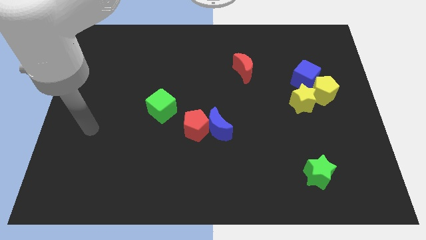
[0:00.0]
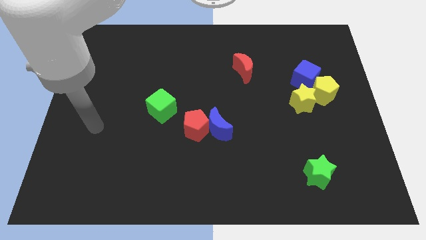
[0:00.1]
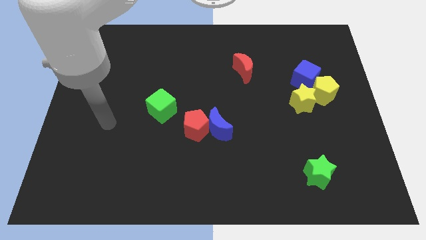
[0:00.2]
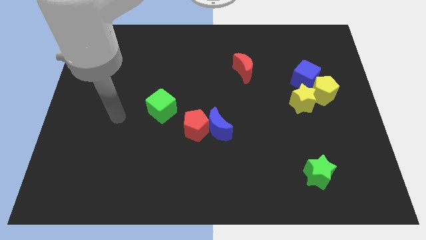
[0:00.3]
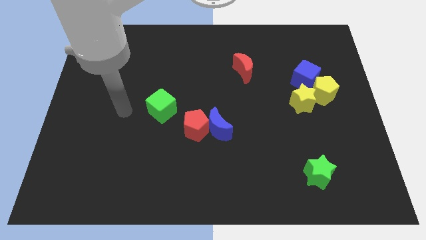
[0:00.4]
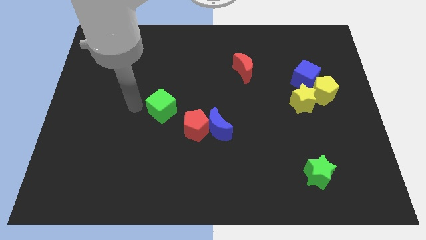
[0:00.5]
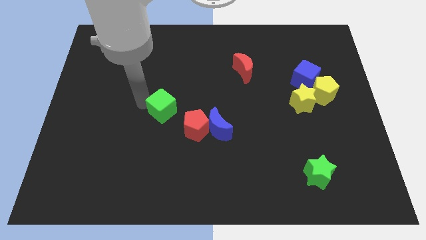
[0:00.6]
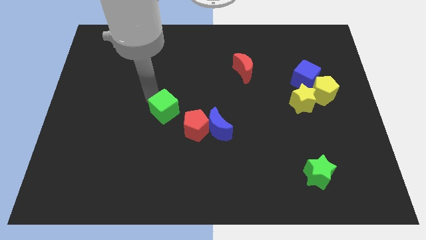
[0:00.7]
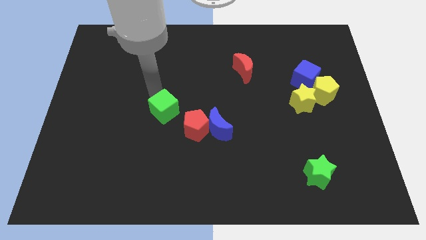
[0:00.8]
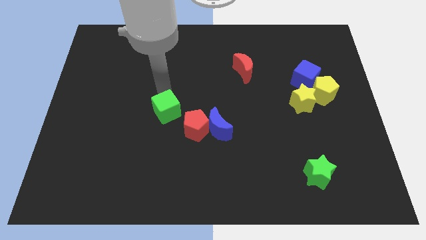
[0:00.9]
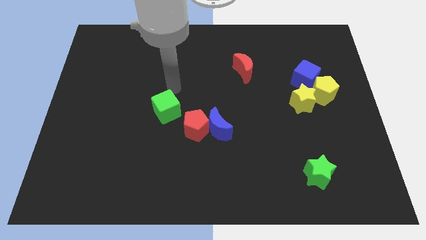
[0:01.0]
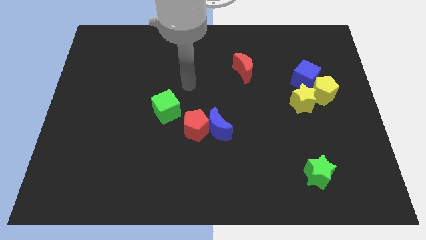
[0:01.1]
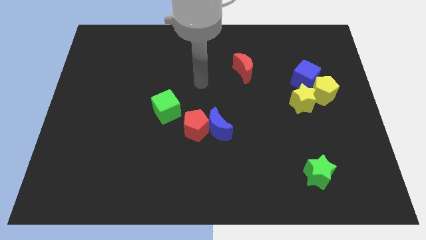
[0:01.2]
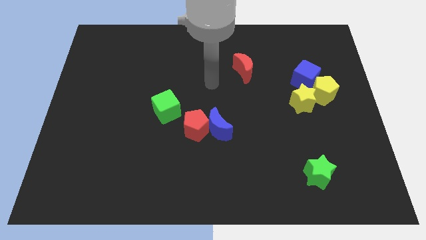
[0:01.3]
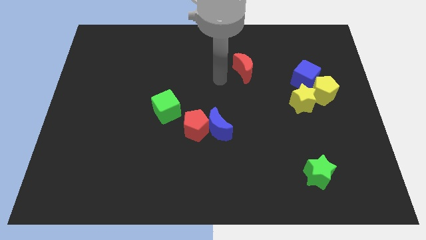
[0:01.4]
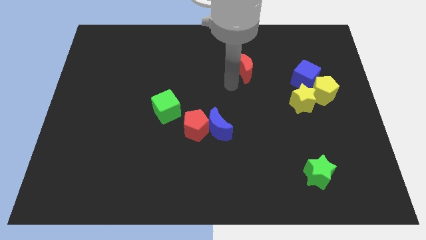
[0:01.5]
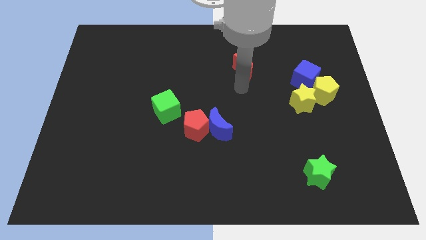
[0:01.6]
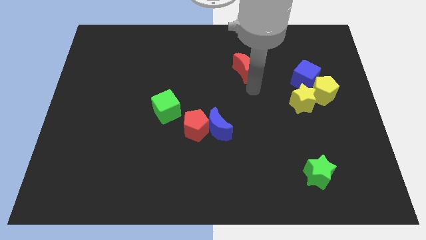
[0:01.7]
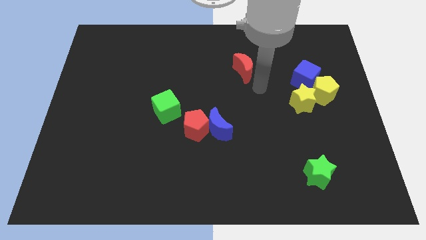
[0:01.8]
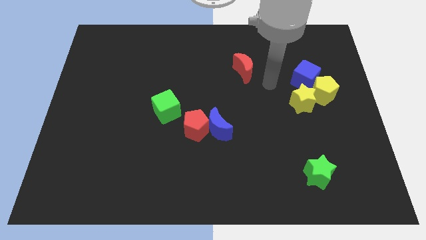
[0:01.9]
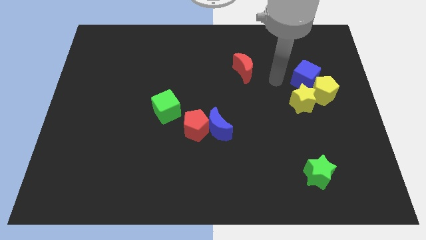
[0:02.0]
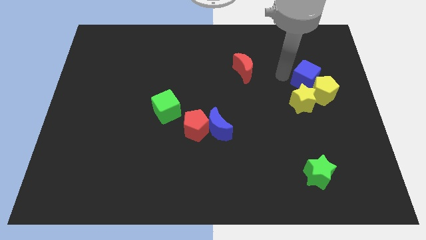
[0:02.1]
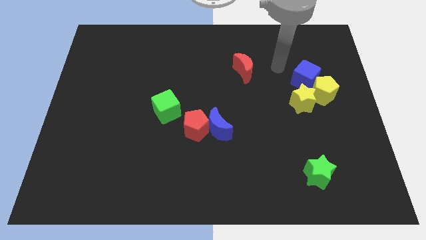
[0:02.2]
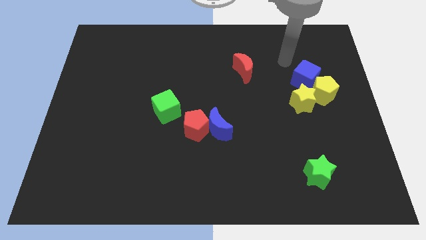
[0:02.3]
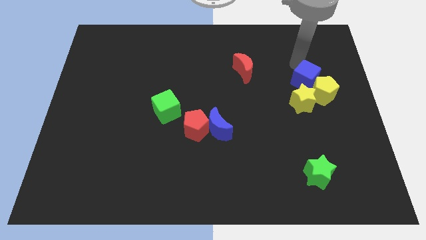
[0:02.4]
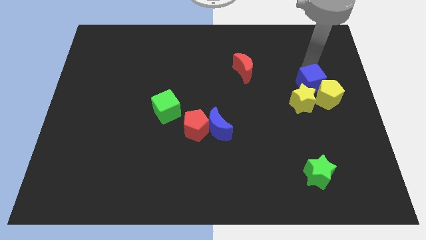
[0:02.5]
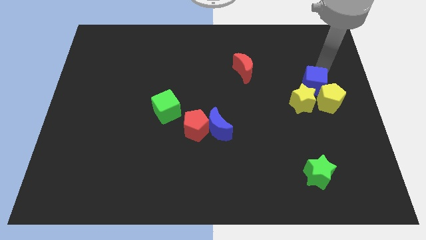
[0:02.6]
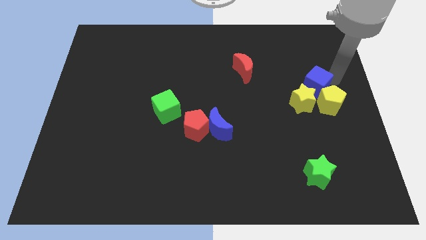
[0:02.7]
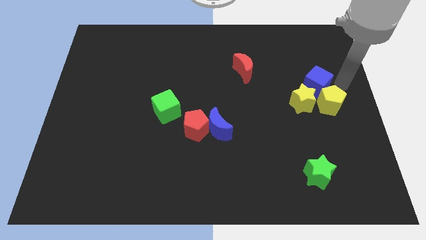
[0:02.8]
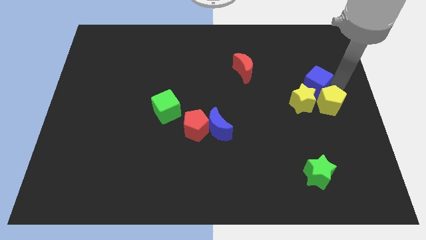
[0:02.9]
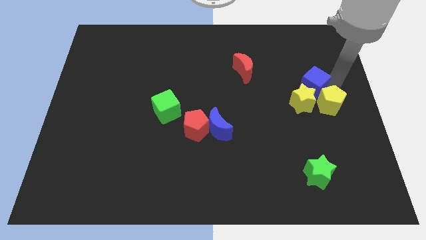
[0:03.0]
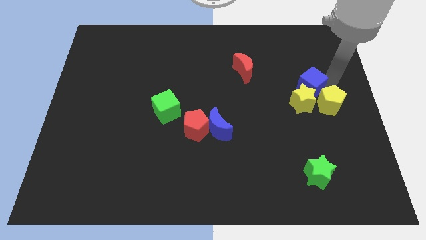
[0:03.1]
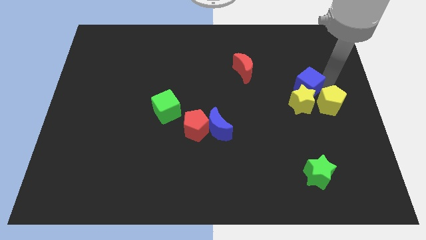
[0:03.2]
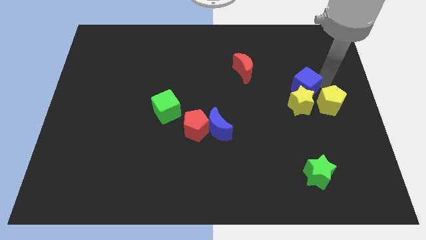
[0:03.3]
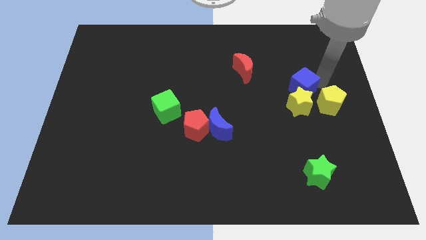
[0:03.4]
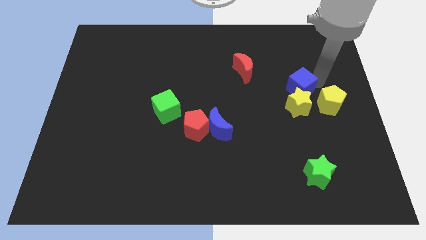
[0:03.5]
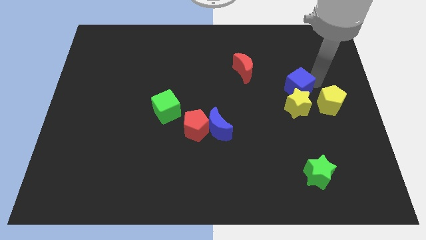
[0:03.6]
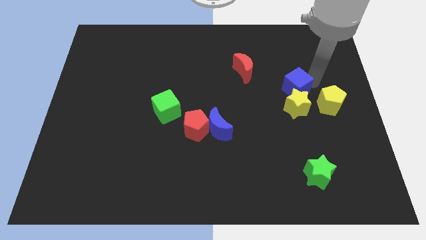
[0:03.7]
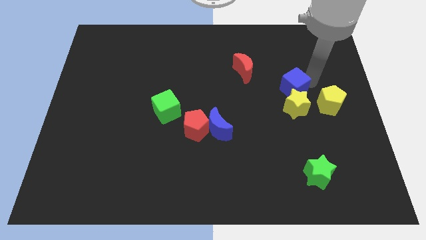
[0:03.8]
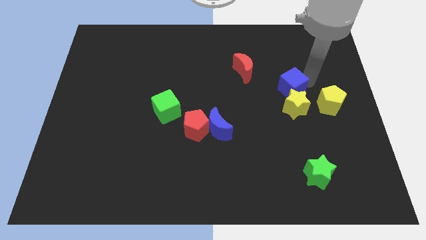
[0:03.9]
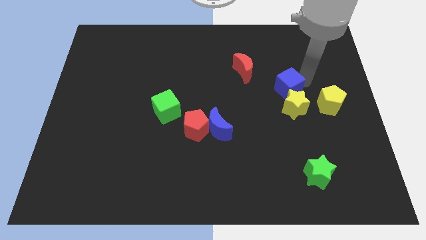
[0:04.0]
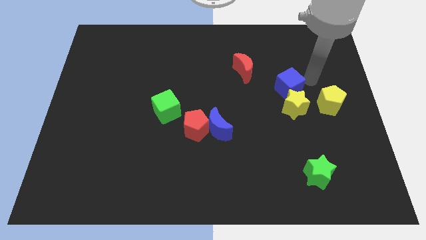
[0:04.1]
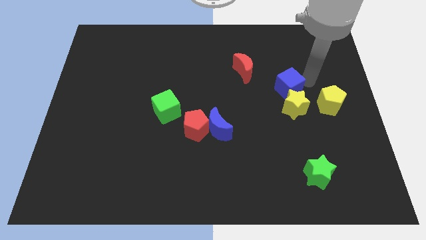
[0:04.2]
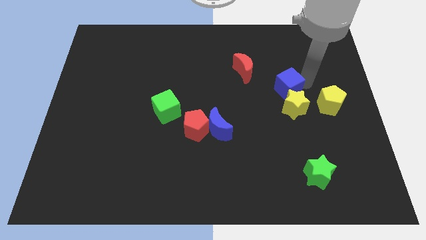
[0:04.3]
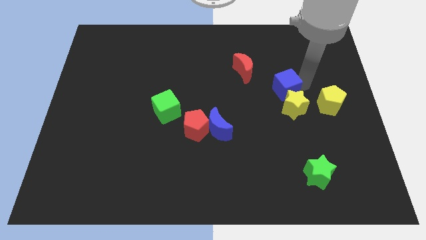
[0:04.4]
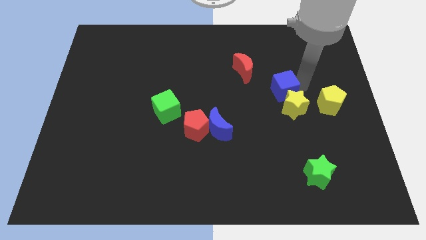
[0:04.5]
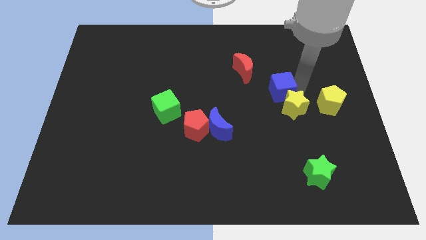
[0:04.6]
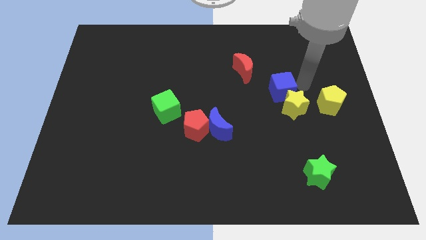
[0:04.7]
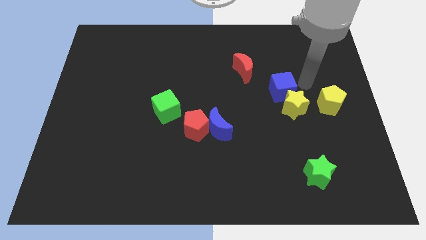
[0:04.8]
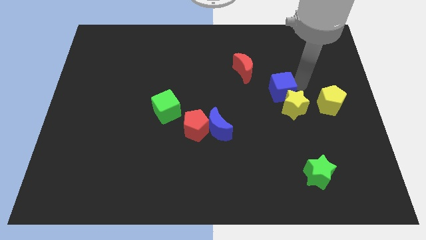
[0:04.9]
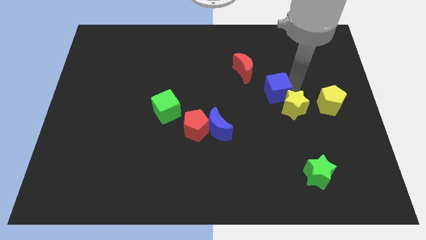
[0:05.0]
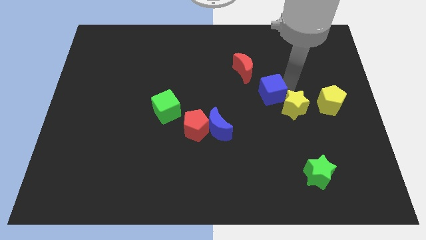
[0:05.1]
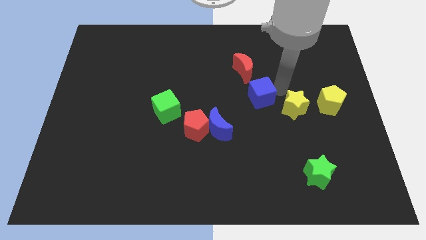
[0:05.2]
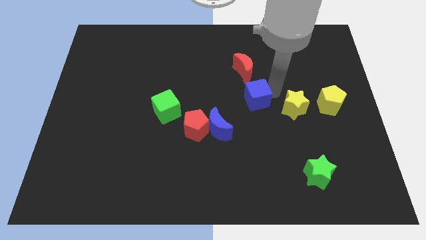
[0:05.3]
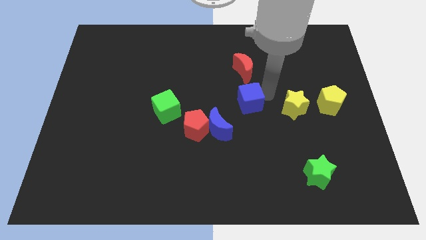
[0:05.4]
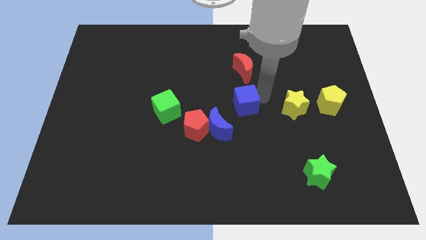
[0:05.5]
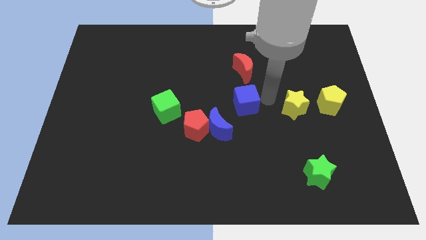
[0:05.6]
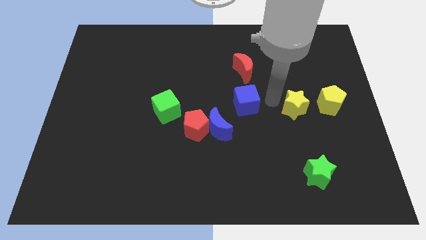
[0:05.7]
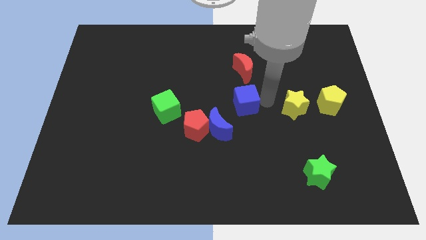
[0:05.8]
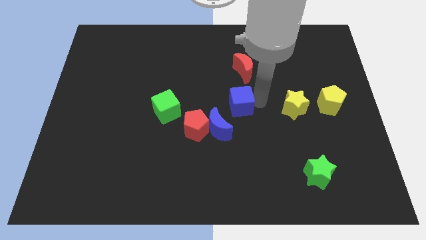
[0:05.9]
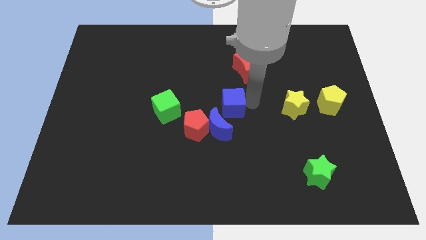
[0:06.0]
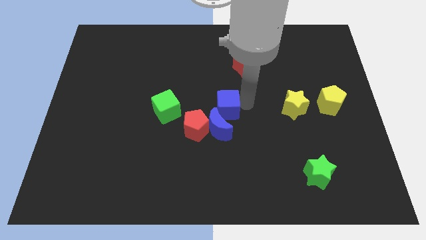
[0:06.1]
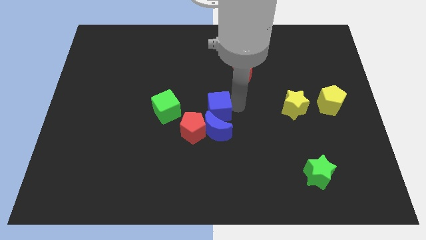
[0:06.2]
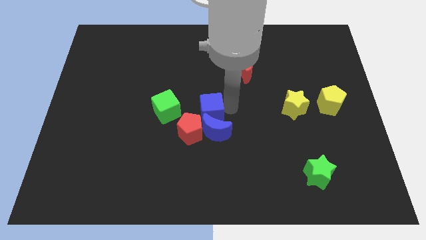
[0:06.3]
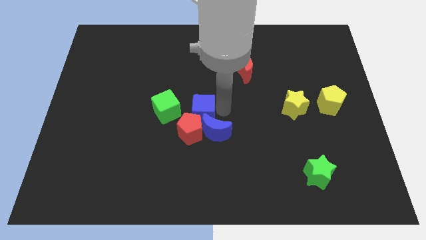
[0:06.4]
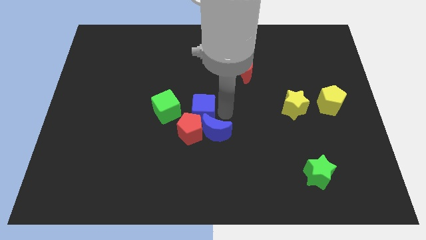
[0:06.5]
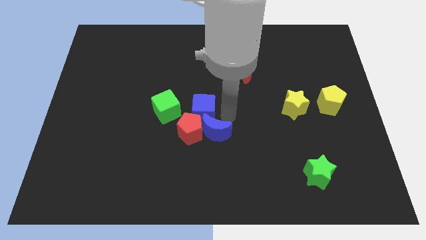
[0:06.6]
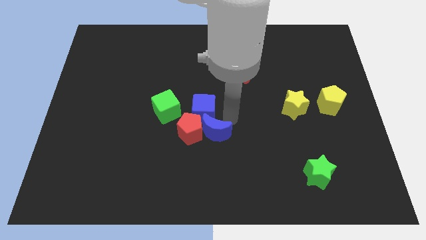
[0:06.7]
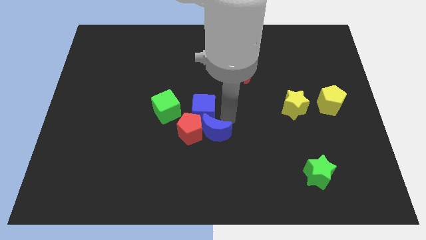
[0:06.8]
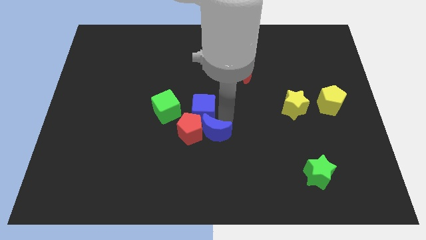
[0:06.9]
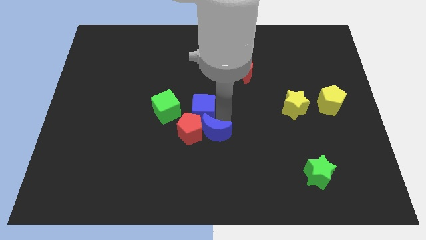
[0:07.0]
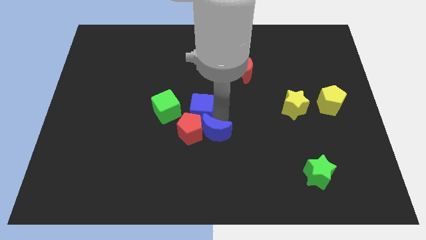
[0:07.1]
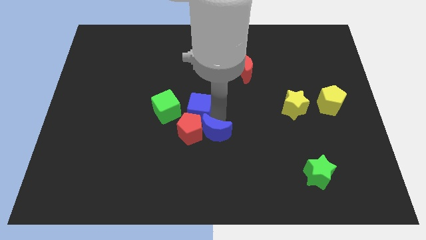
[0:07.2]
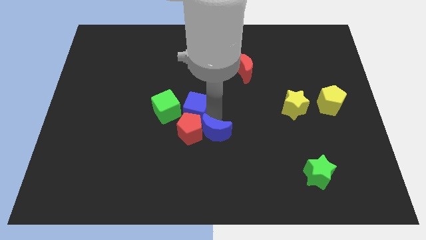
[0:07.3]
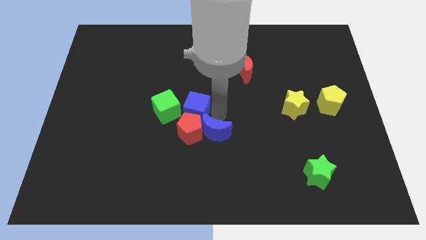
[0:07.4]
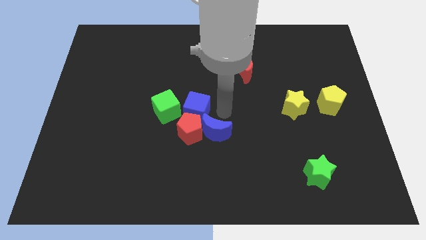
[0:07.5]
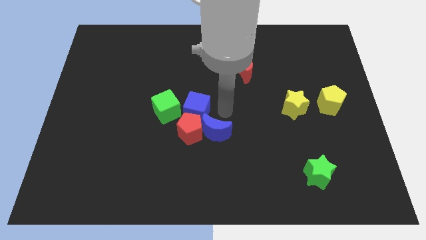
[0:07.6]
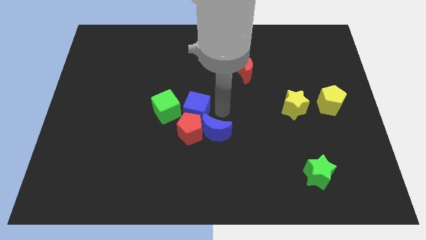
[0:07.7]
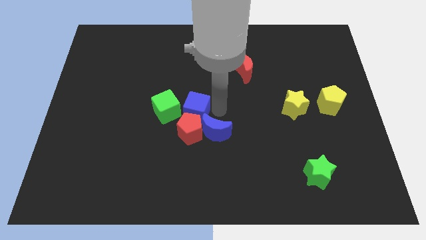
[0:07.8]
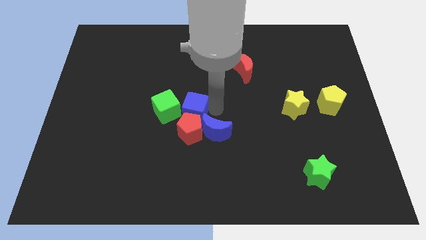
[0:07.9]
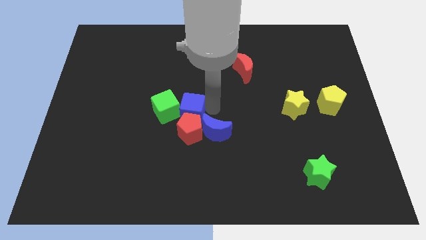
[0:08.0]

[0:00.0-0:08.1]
move the blue cube to the green cube
